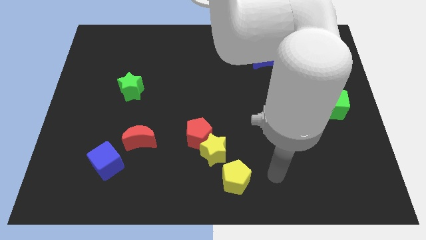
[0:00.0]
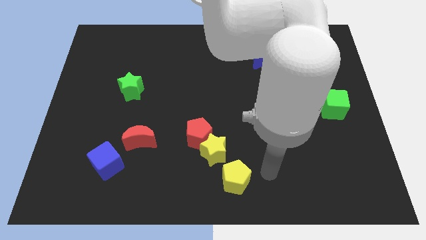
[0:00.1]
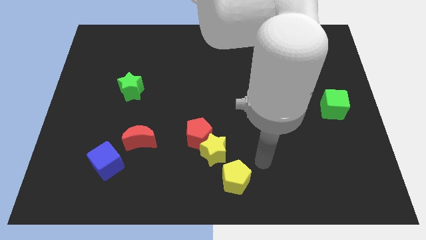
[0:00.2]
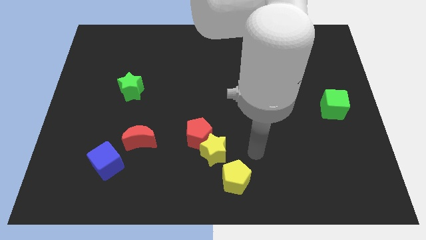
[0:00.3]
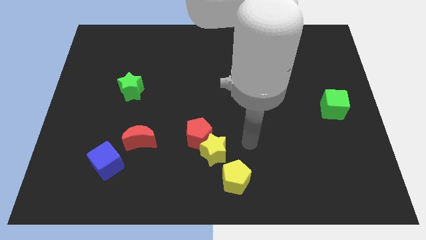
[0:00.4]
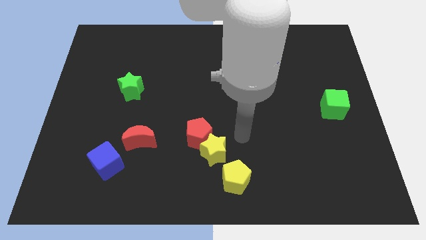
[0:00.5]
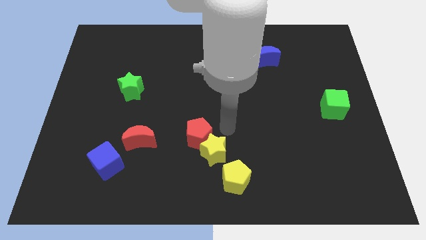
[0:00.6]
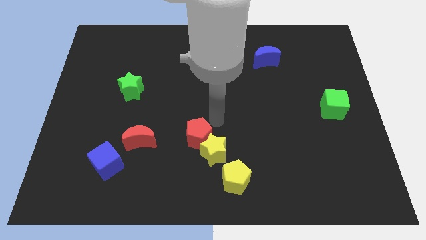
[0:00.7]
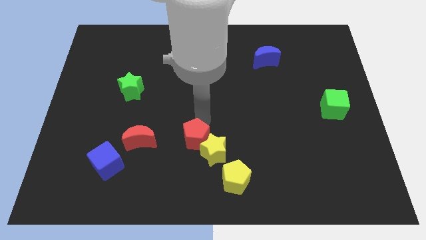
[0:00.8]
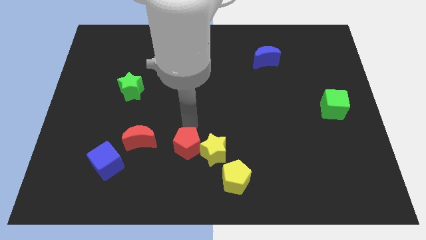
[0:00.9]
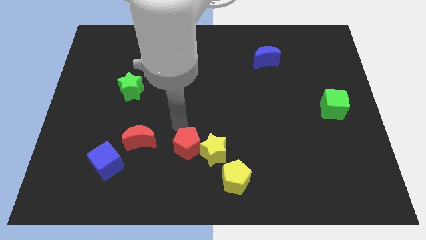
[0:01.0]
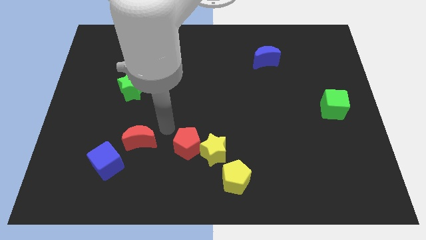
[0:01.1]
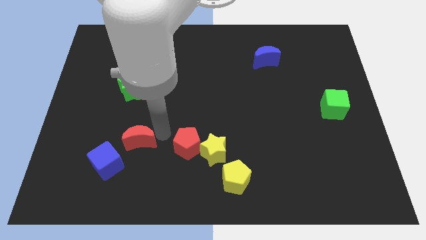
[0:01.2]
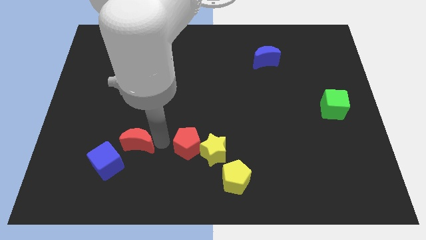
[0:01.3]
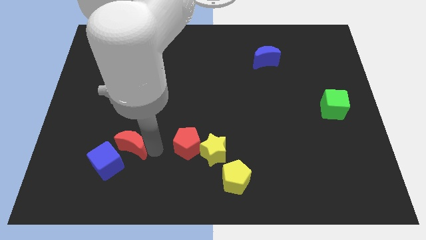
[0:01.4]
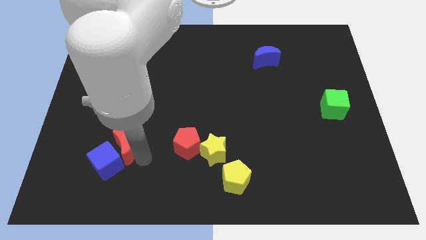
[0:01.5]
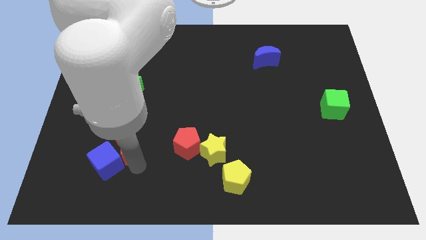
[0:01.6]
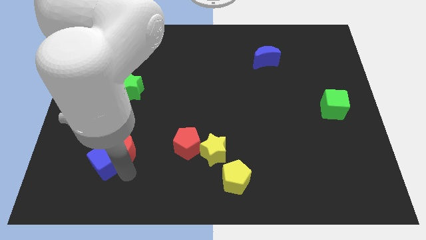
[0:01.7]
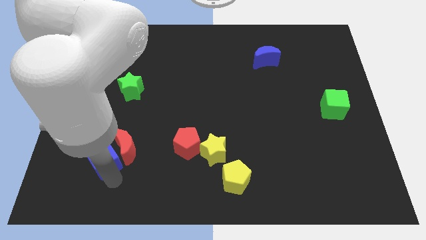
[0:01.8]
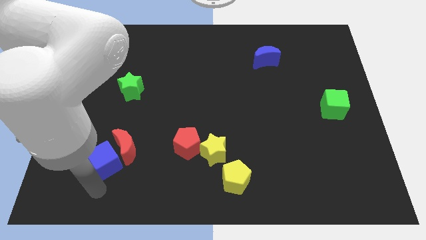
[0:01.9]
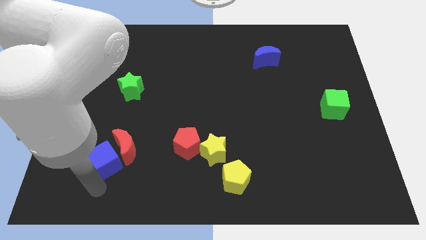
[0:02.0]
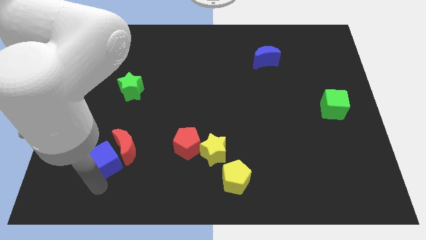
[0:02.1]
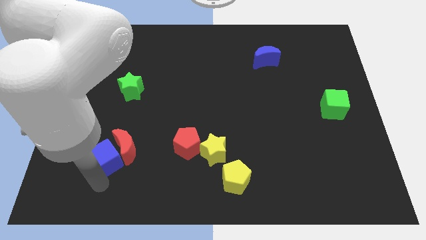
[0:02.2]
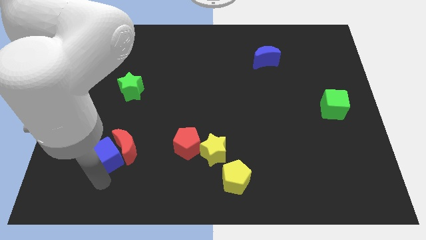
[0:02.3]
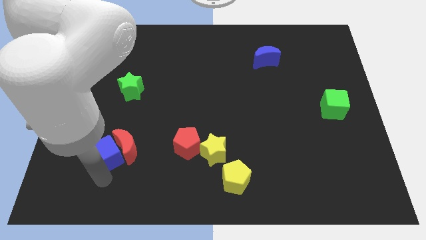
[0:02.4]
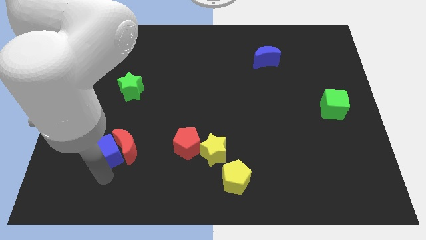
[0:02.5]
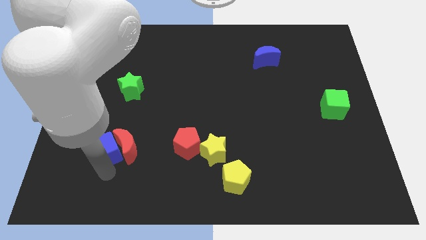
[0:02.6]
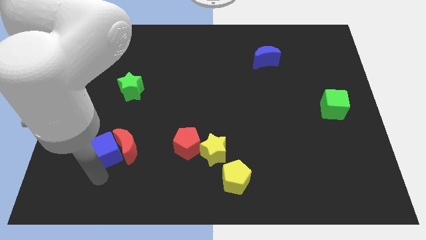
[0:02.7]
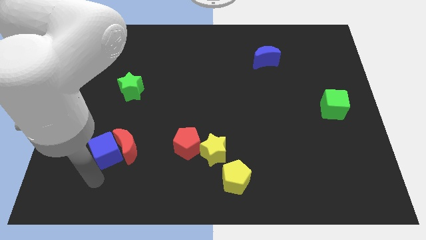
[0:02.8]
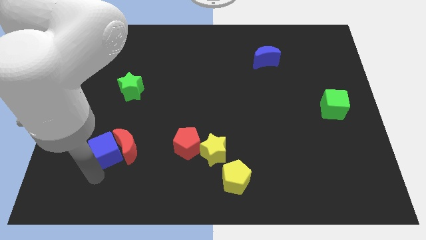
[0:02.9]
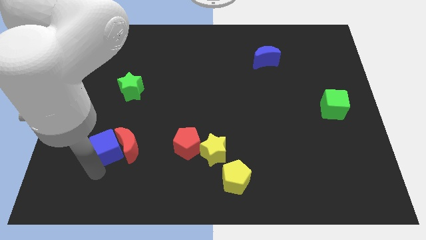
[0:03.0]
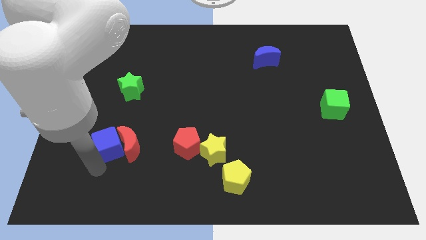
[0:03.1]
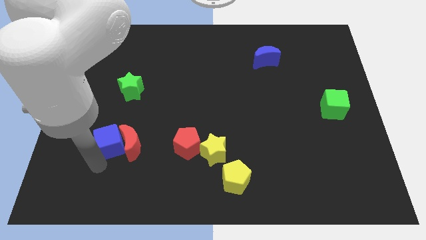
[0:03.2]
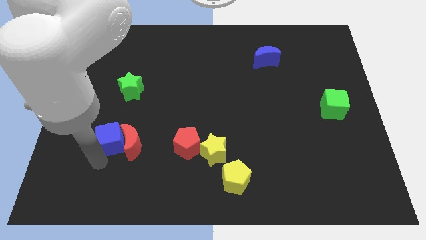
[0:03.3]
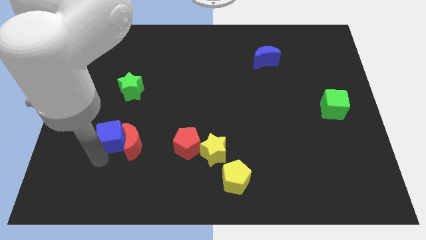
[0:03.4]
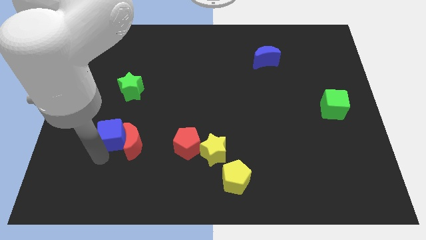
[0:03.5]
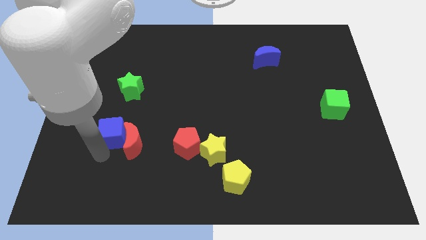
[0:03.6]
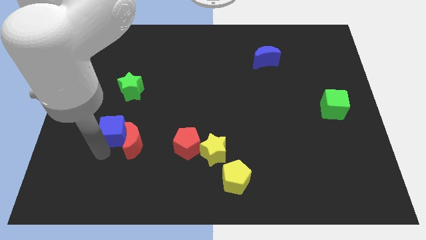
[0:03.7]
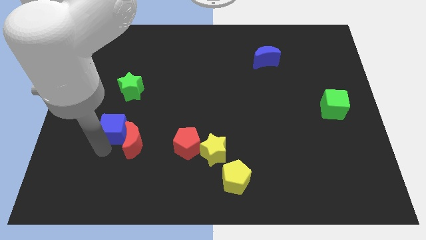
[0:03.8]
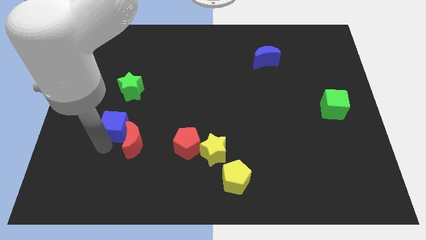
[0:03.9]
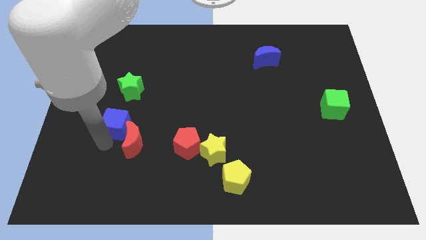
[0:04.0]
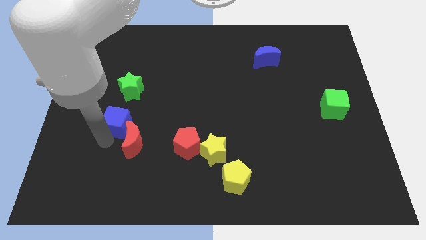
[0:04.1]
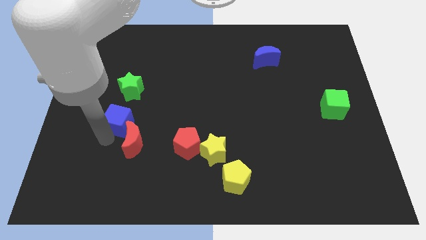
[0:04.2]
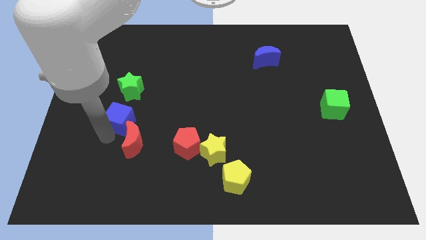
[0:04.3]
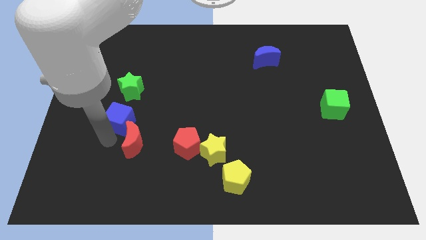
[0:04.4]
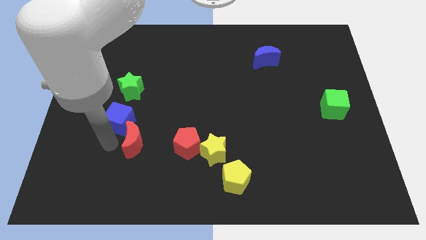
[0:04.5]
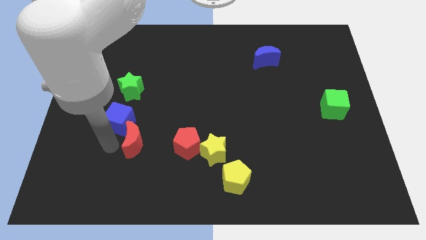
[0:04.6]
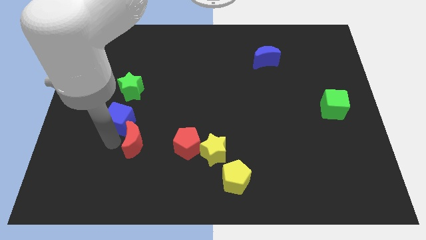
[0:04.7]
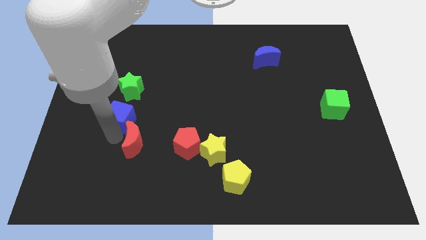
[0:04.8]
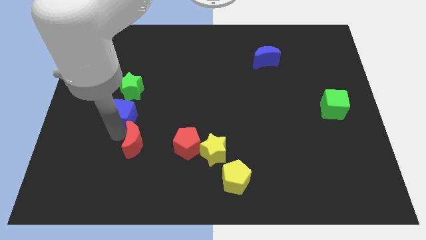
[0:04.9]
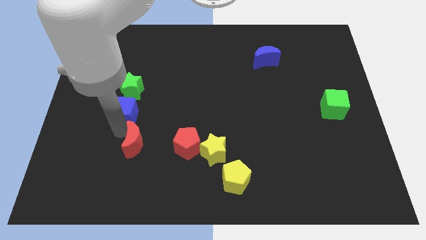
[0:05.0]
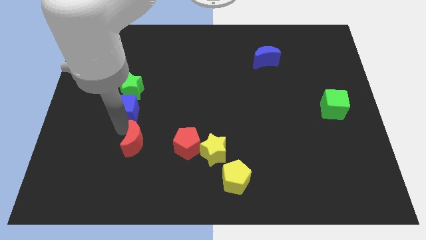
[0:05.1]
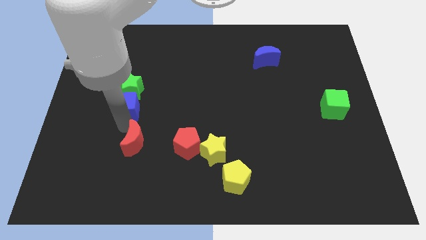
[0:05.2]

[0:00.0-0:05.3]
push the blue cube next to the green star

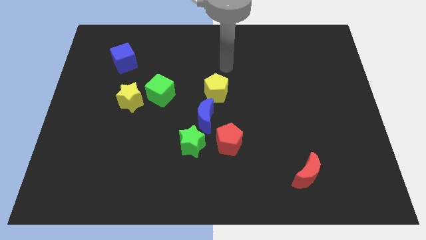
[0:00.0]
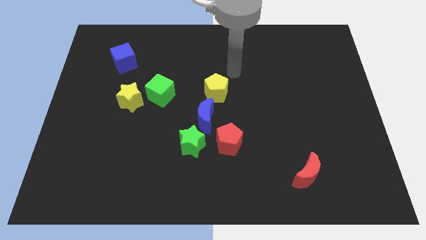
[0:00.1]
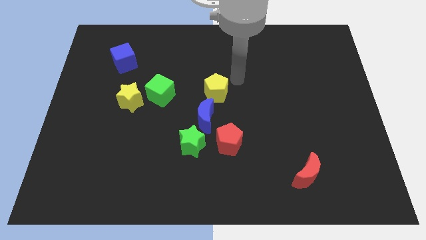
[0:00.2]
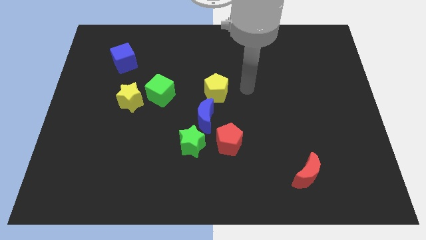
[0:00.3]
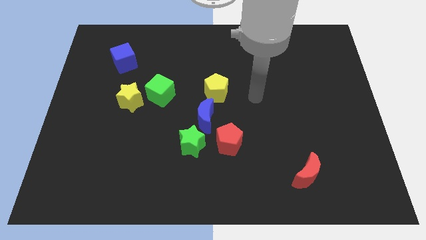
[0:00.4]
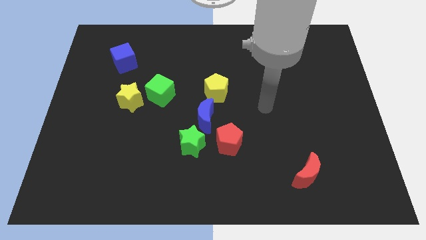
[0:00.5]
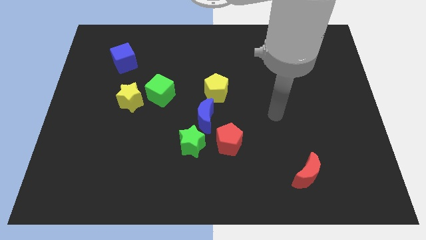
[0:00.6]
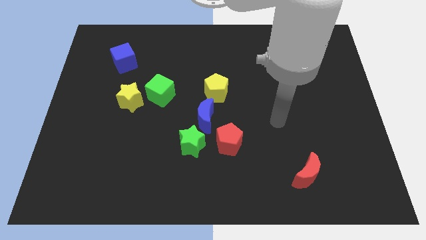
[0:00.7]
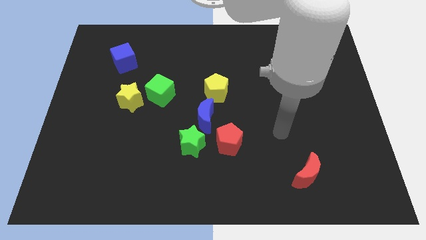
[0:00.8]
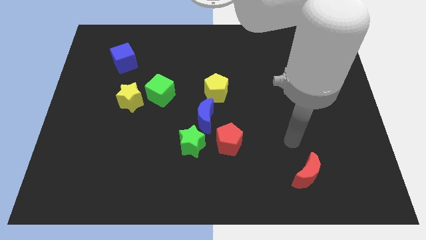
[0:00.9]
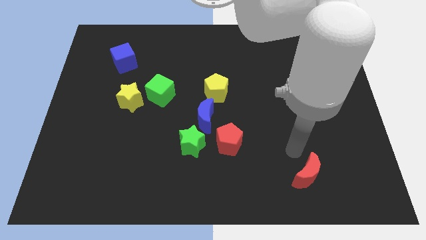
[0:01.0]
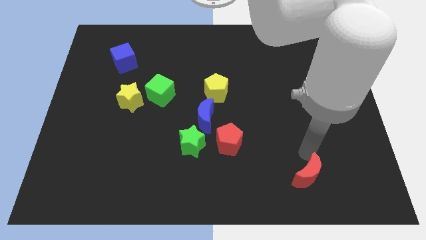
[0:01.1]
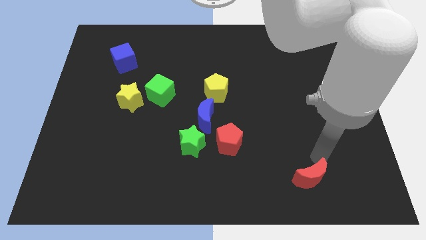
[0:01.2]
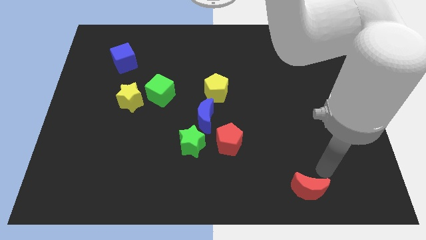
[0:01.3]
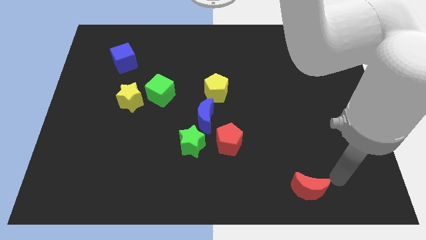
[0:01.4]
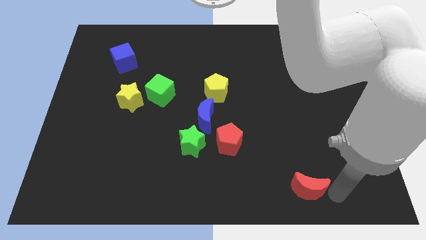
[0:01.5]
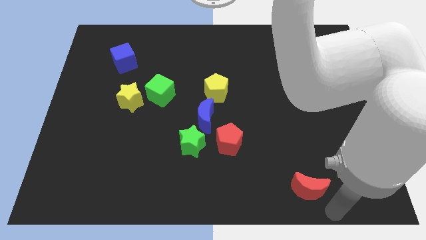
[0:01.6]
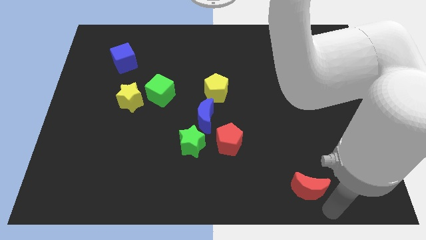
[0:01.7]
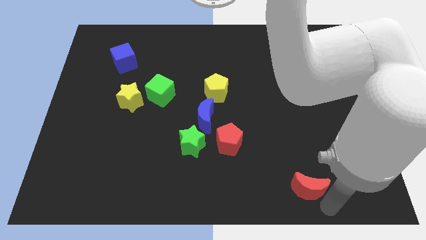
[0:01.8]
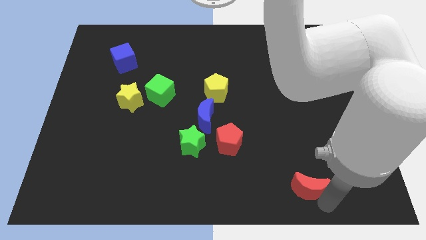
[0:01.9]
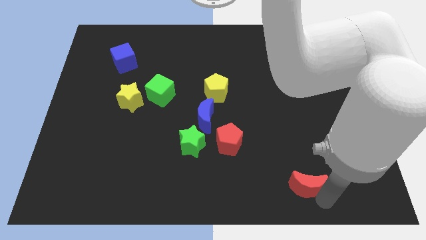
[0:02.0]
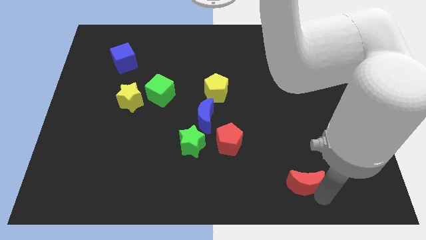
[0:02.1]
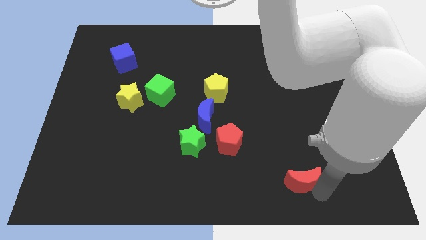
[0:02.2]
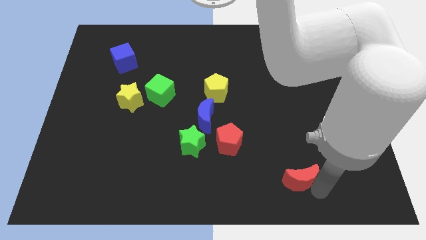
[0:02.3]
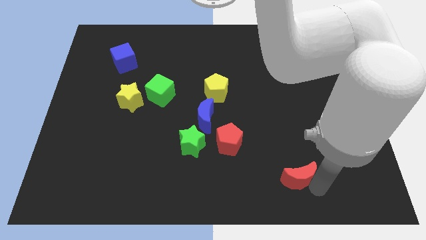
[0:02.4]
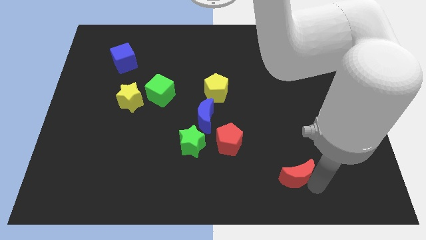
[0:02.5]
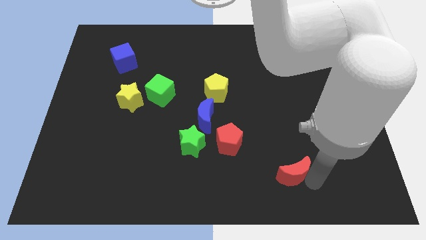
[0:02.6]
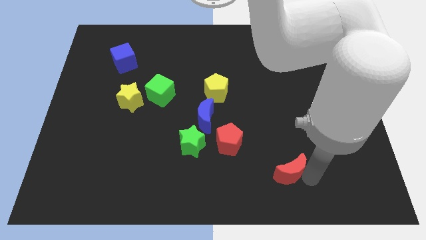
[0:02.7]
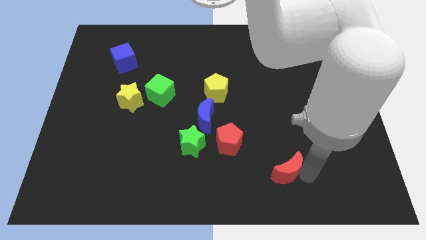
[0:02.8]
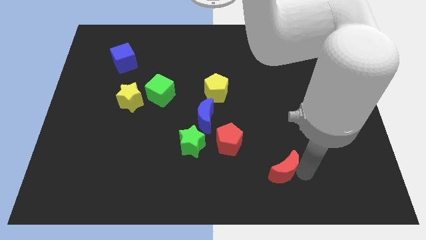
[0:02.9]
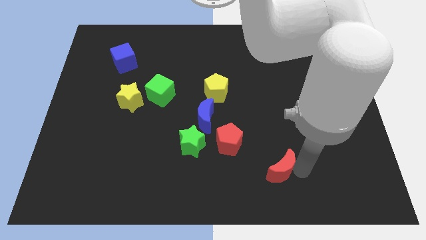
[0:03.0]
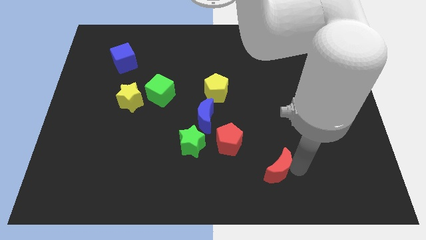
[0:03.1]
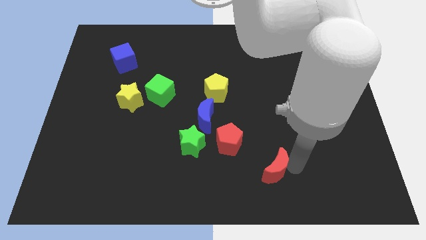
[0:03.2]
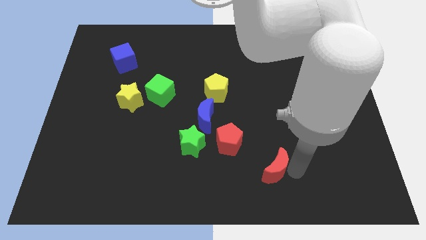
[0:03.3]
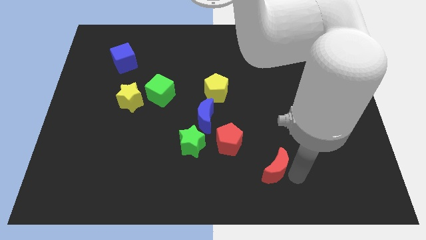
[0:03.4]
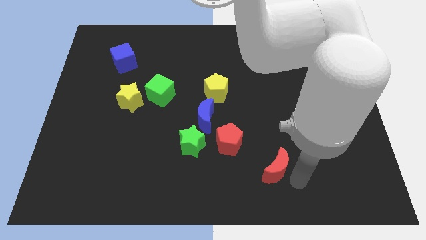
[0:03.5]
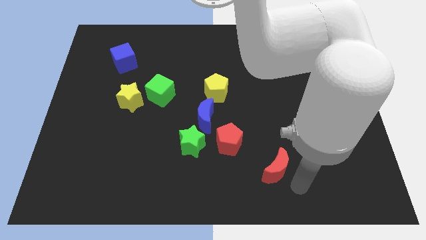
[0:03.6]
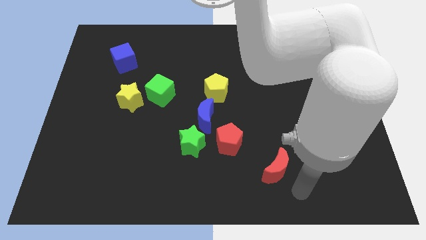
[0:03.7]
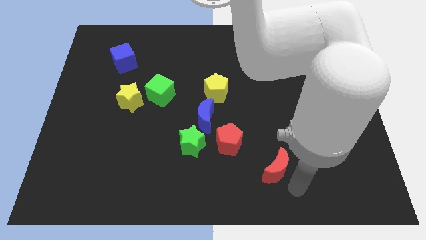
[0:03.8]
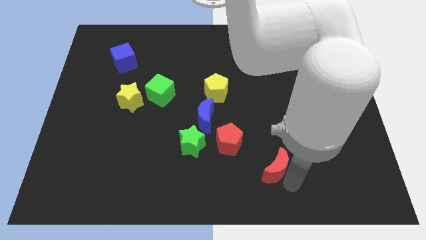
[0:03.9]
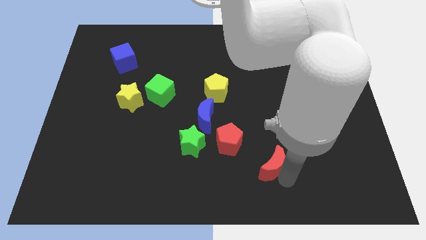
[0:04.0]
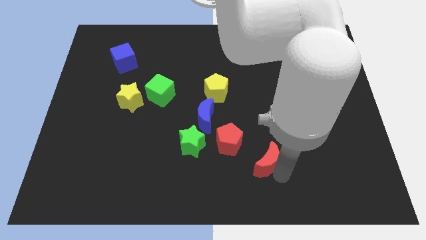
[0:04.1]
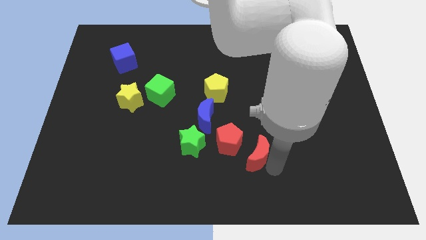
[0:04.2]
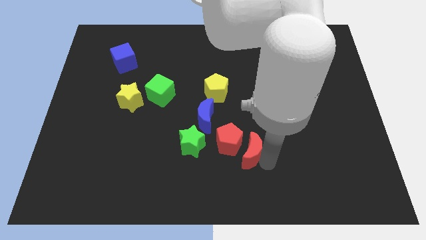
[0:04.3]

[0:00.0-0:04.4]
put the red moon towards the red pentagon
